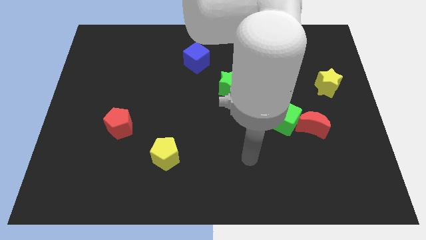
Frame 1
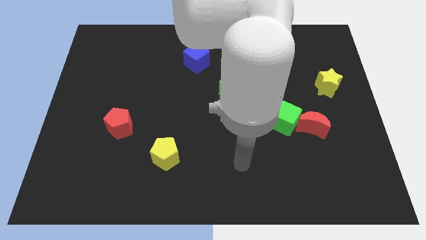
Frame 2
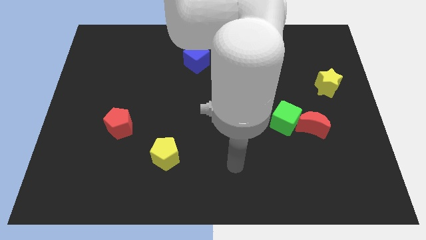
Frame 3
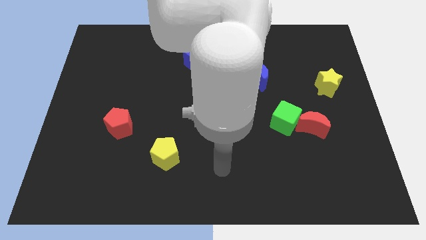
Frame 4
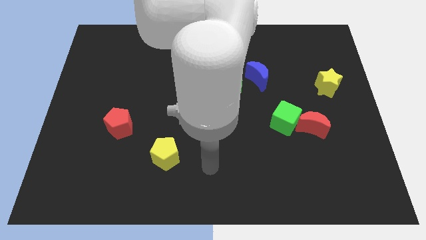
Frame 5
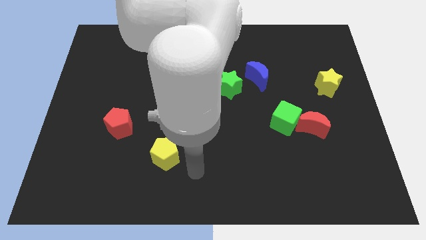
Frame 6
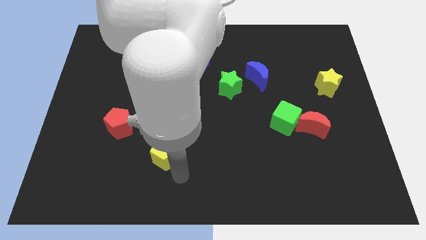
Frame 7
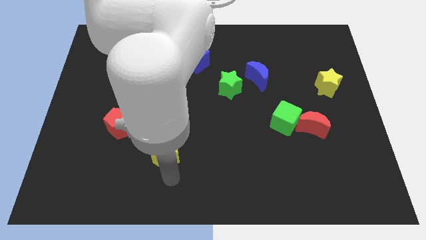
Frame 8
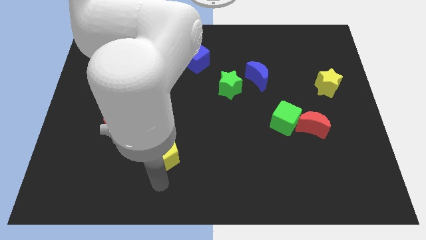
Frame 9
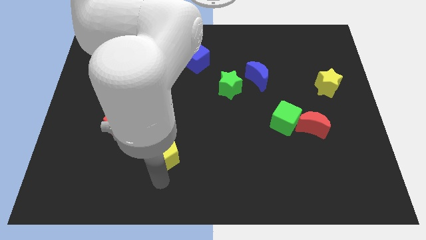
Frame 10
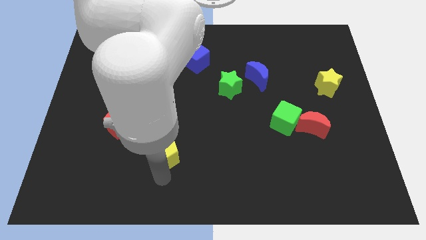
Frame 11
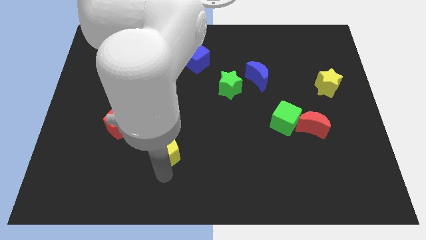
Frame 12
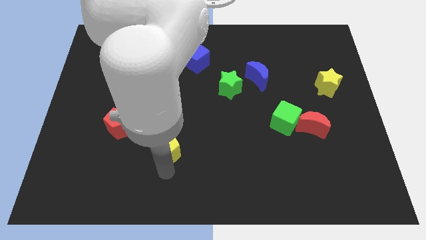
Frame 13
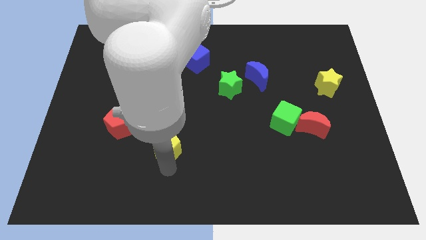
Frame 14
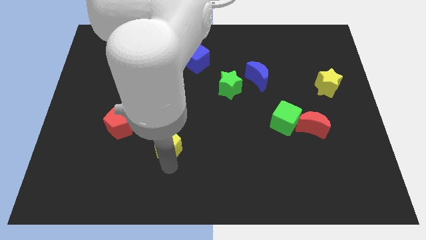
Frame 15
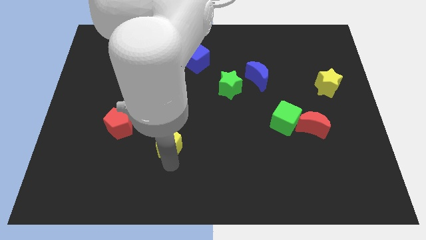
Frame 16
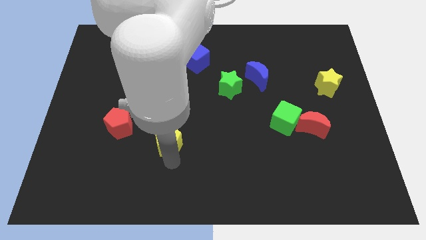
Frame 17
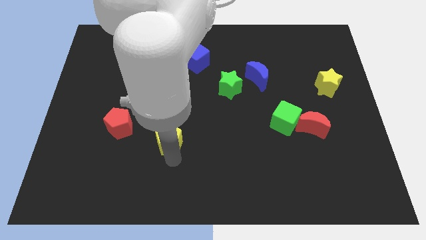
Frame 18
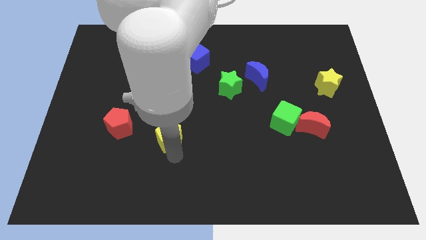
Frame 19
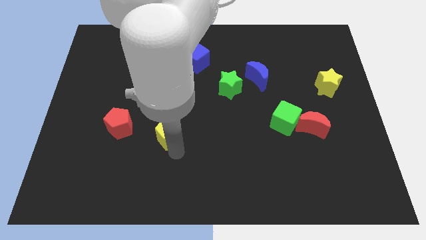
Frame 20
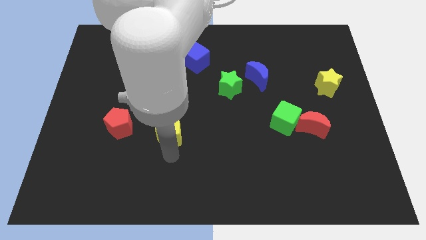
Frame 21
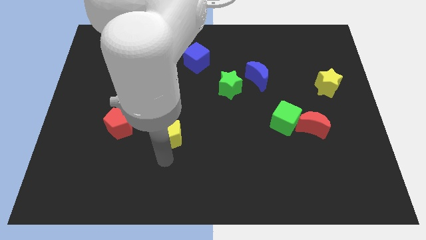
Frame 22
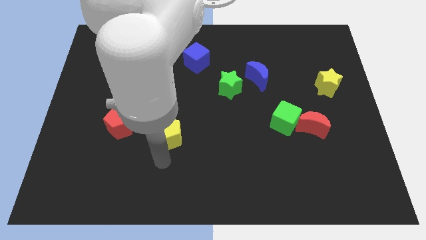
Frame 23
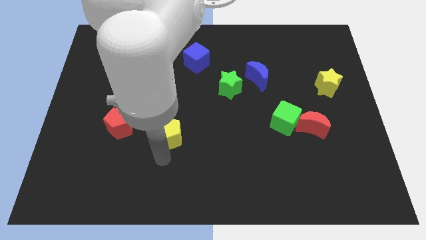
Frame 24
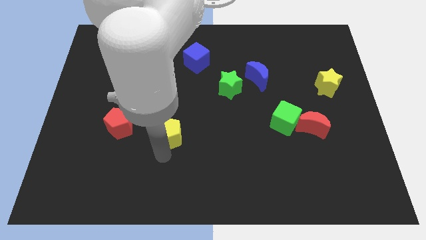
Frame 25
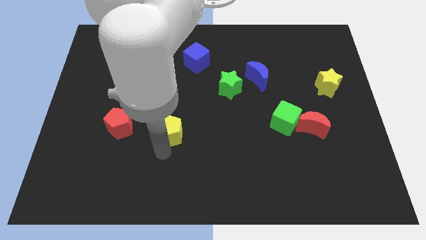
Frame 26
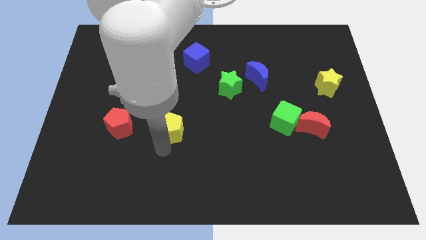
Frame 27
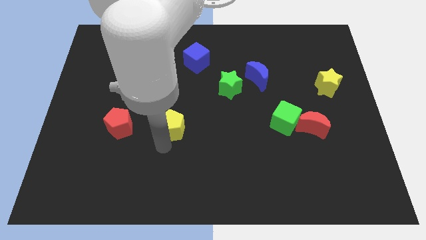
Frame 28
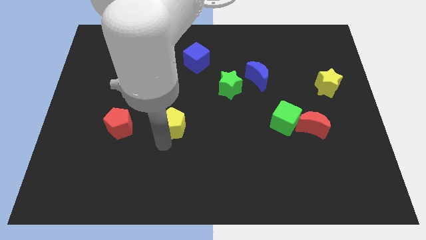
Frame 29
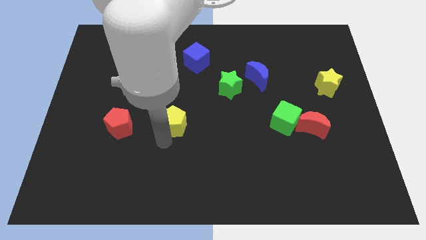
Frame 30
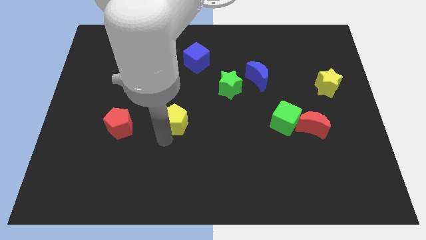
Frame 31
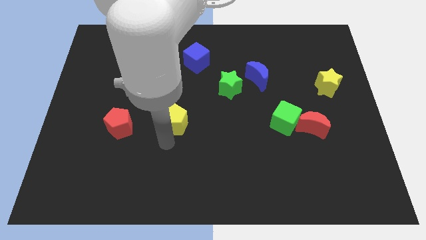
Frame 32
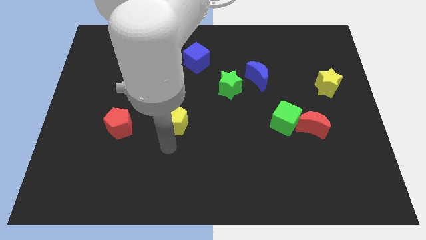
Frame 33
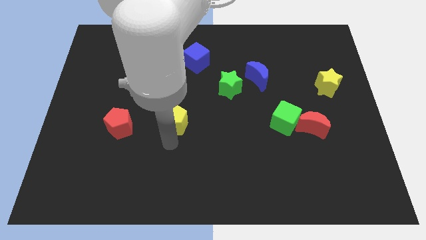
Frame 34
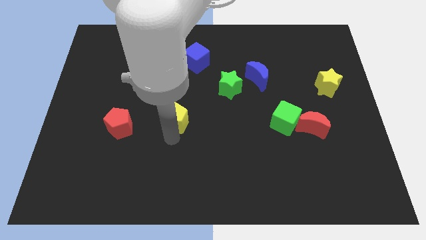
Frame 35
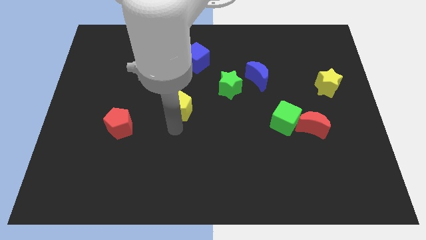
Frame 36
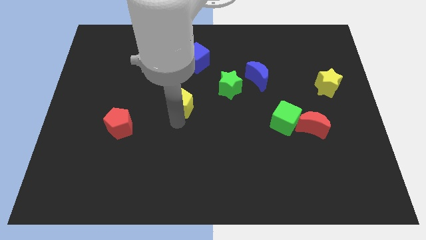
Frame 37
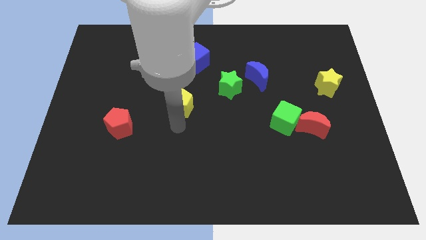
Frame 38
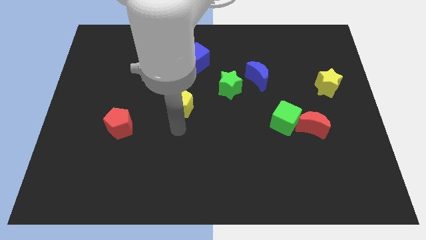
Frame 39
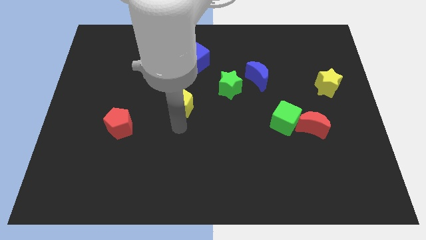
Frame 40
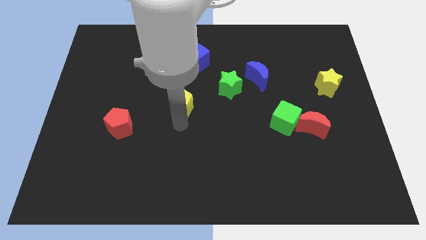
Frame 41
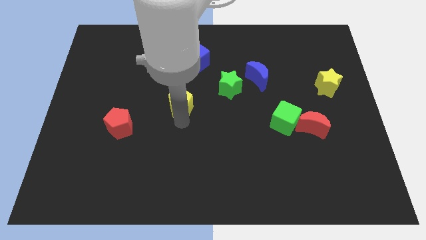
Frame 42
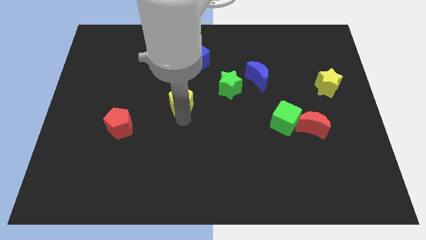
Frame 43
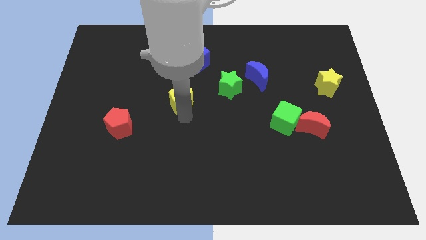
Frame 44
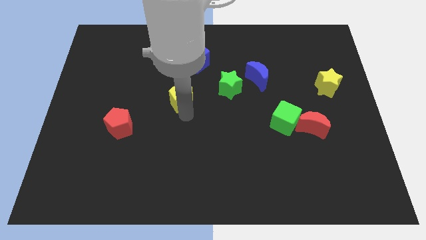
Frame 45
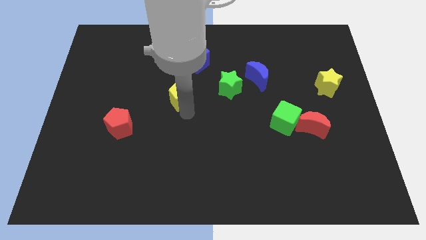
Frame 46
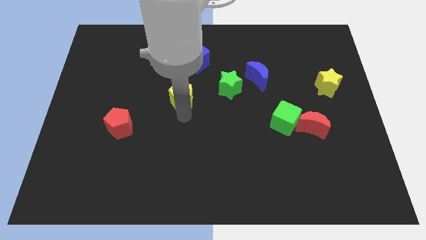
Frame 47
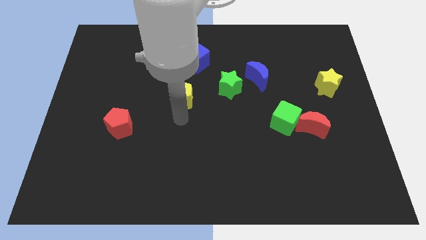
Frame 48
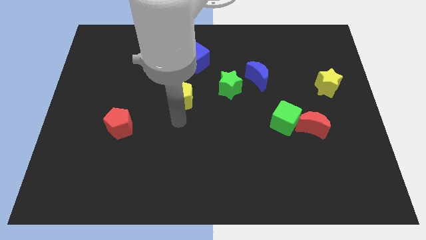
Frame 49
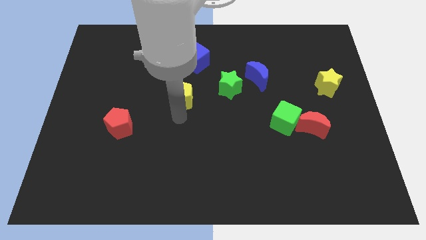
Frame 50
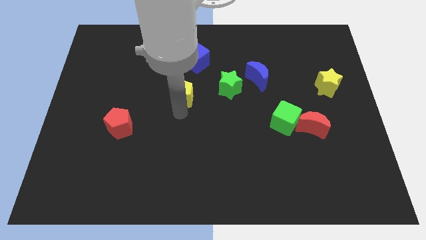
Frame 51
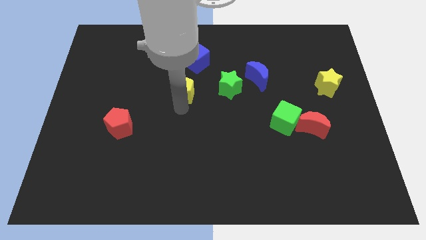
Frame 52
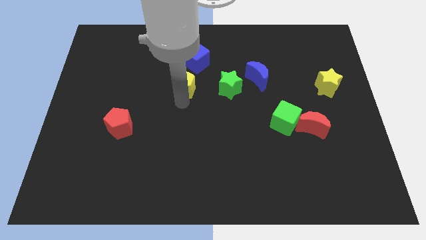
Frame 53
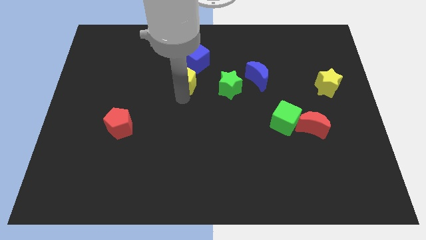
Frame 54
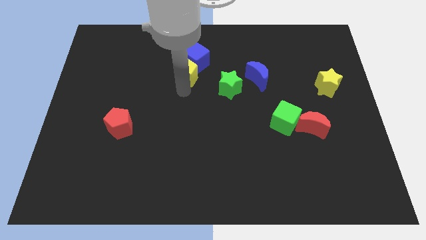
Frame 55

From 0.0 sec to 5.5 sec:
move the yellow pentagon to the blue cube

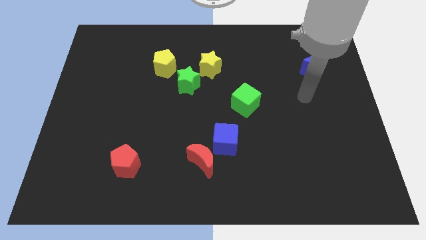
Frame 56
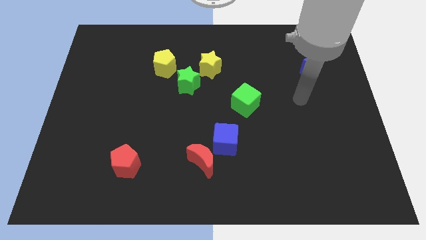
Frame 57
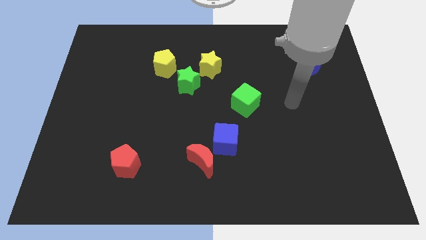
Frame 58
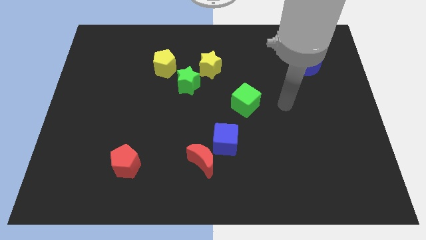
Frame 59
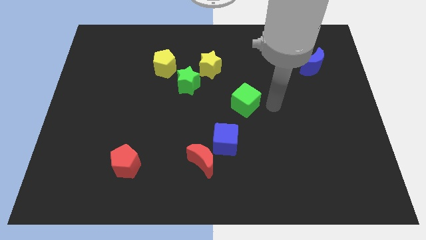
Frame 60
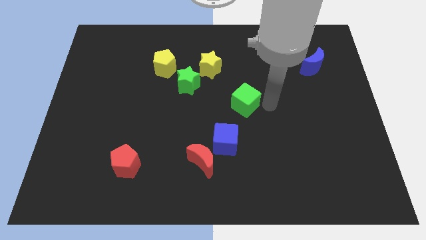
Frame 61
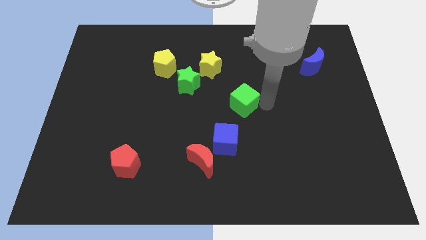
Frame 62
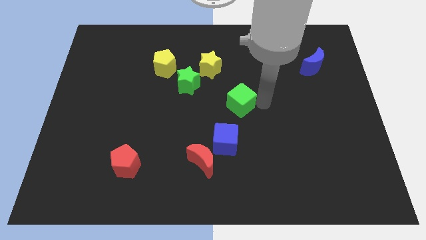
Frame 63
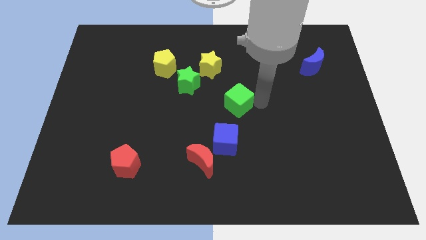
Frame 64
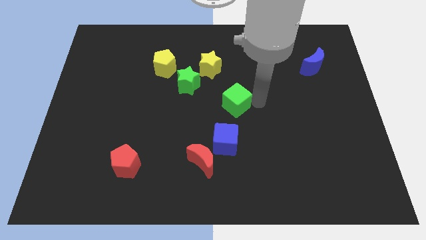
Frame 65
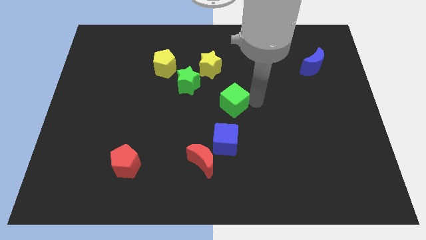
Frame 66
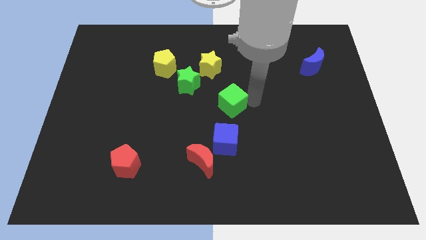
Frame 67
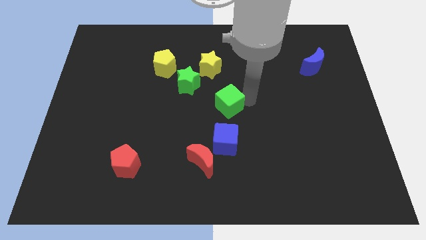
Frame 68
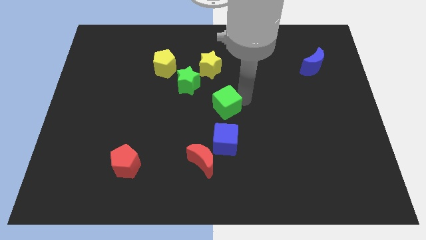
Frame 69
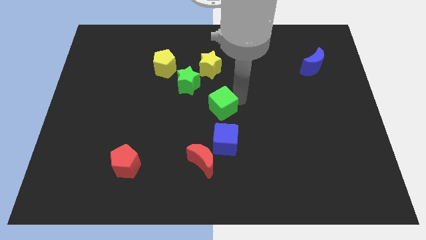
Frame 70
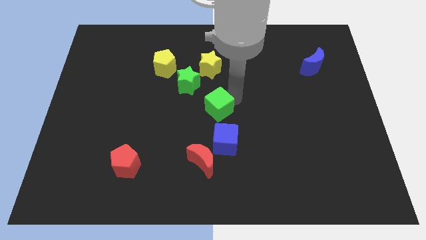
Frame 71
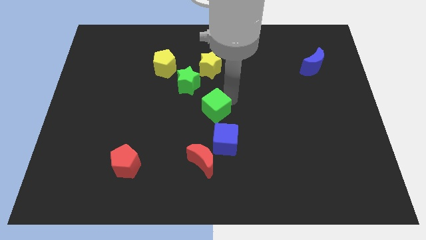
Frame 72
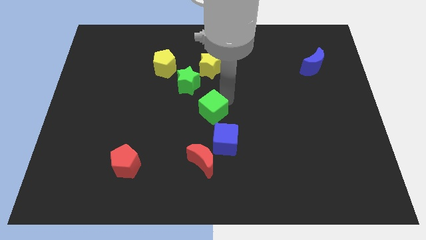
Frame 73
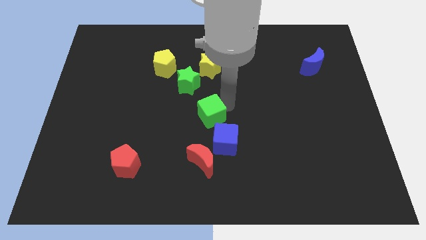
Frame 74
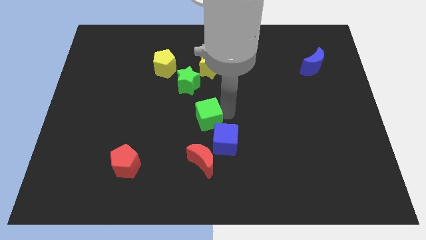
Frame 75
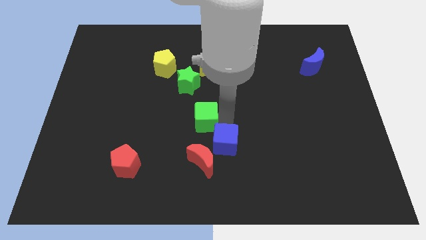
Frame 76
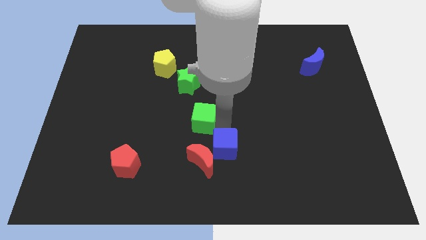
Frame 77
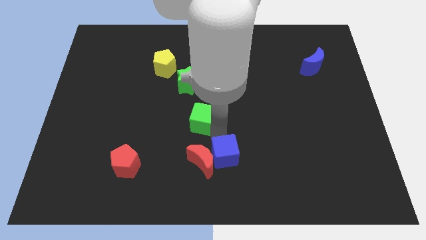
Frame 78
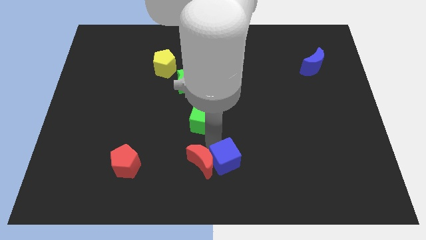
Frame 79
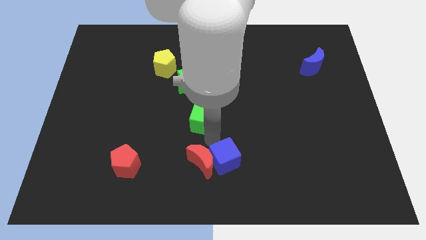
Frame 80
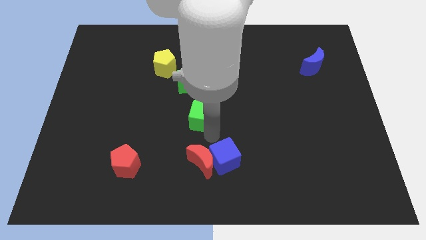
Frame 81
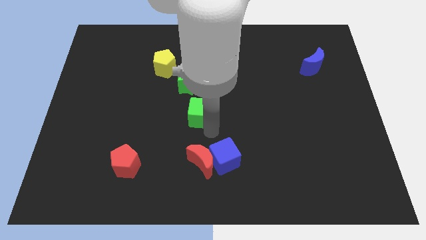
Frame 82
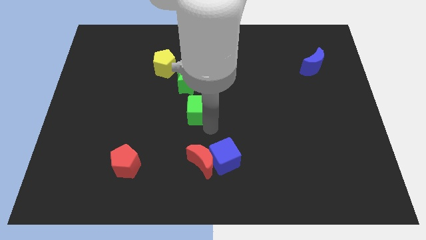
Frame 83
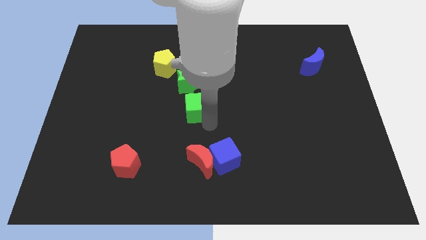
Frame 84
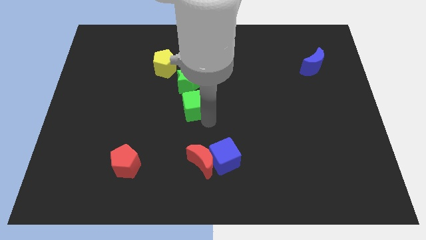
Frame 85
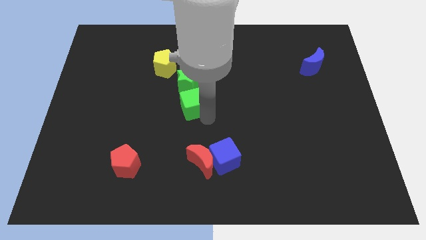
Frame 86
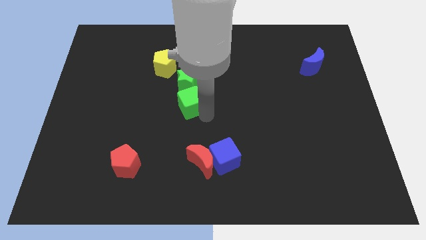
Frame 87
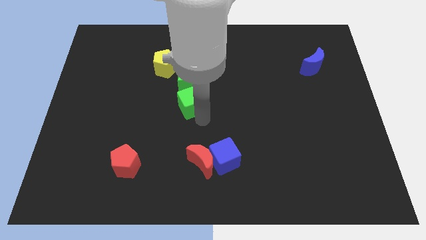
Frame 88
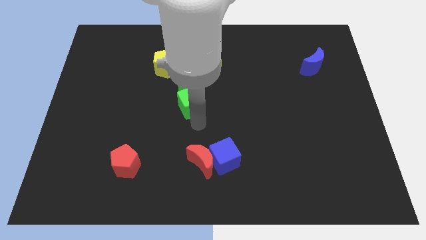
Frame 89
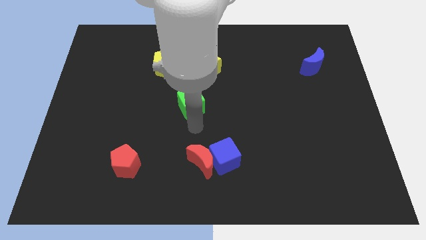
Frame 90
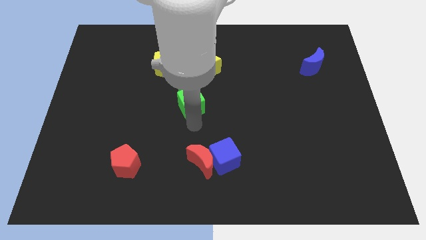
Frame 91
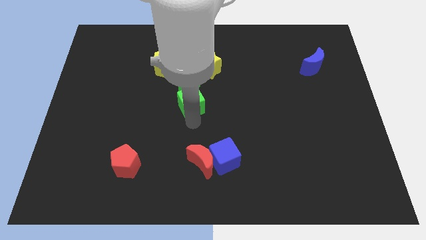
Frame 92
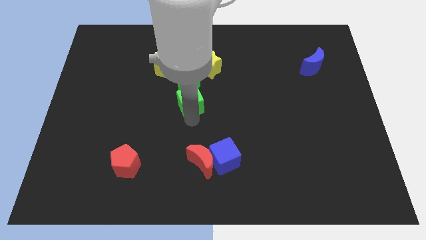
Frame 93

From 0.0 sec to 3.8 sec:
slide the green cube next to the green star
